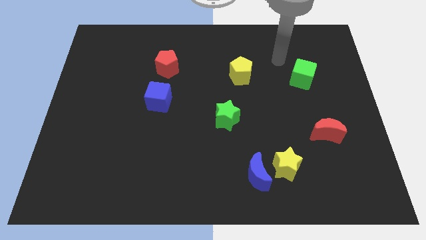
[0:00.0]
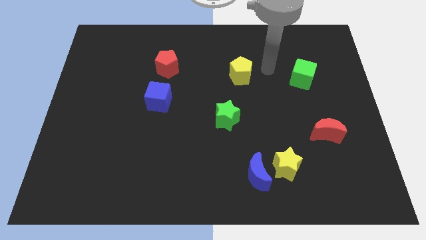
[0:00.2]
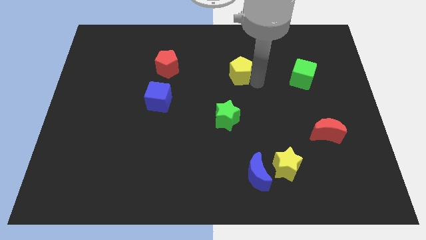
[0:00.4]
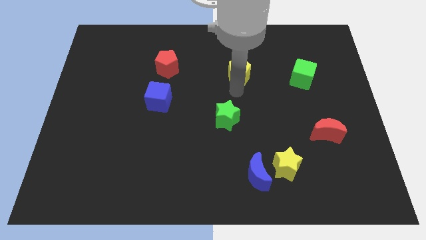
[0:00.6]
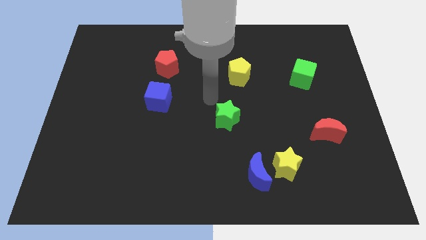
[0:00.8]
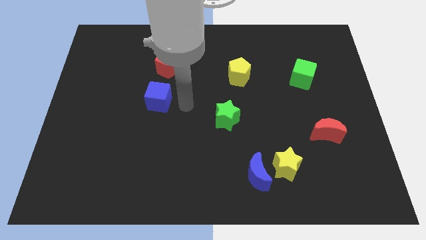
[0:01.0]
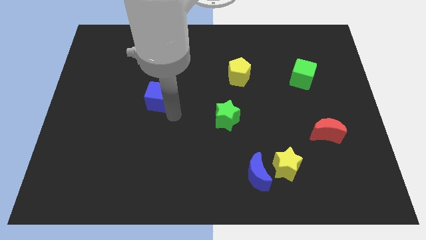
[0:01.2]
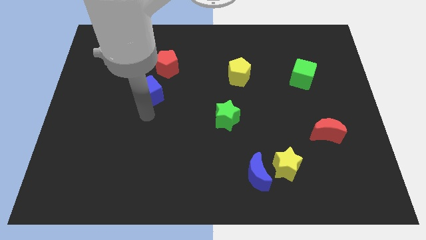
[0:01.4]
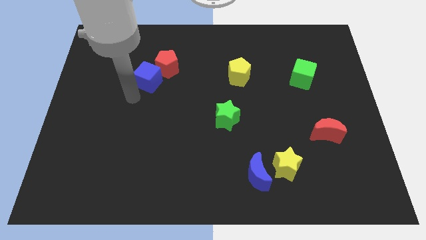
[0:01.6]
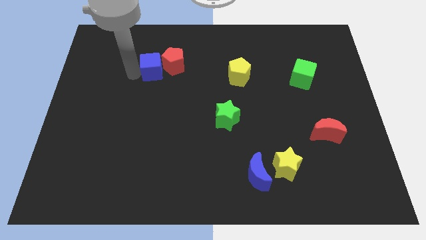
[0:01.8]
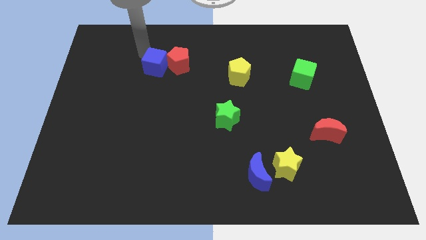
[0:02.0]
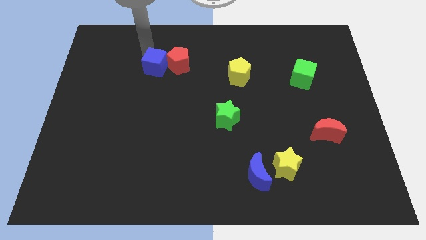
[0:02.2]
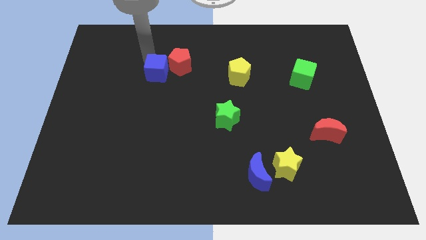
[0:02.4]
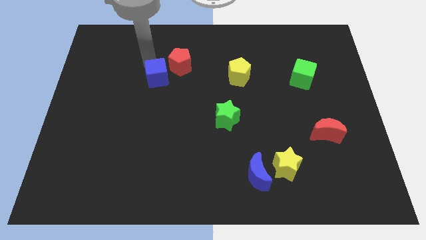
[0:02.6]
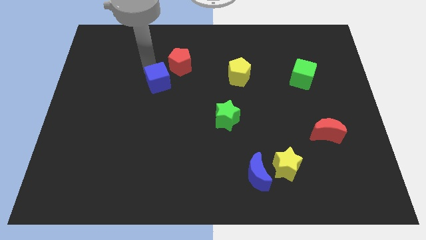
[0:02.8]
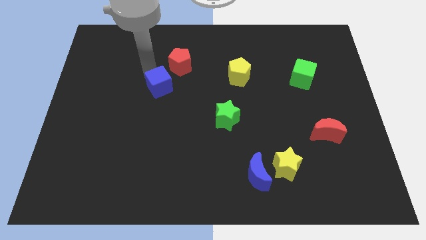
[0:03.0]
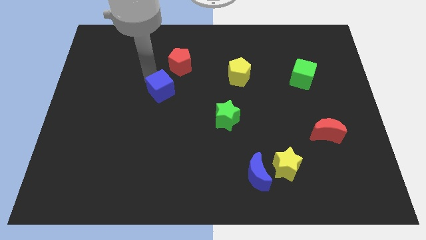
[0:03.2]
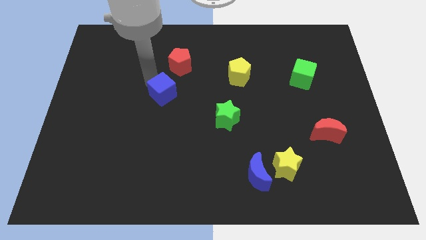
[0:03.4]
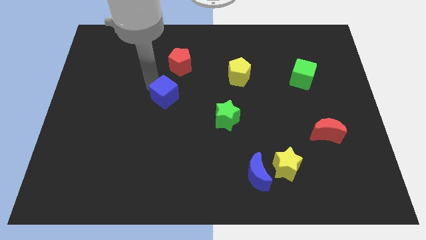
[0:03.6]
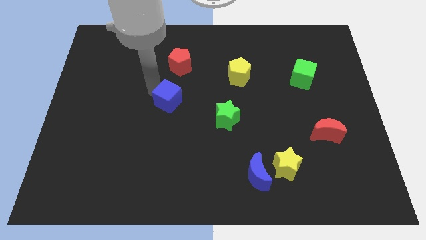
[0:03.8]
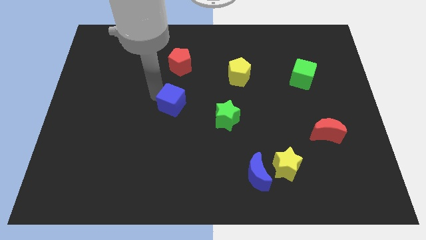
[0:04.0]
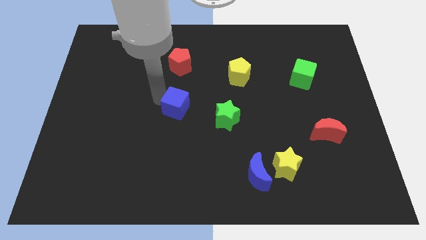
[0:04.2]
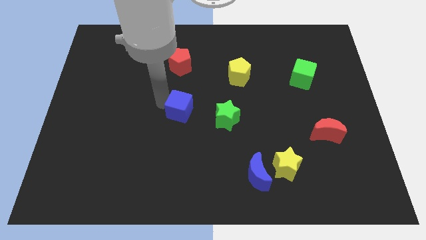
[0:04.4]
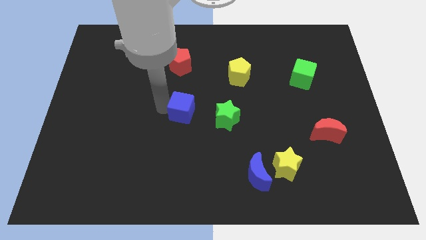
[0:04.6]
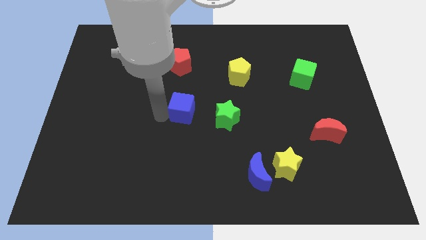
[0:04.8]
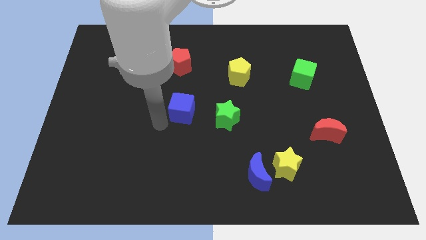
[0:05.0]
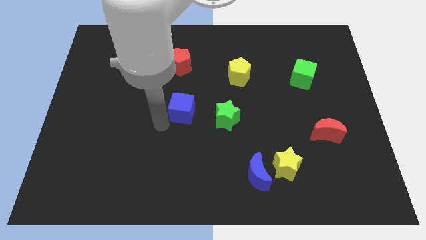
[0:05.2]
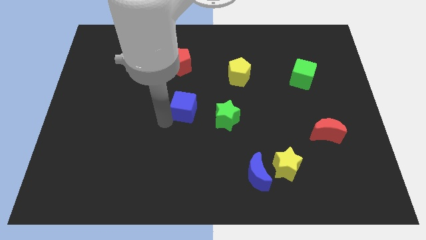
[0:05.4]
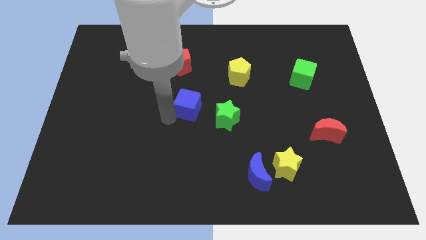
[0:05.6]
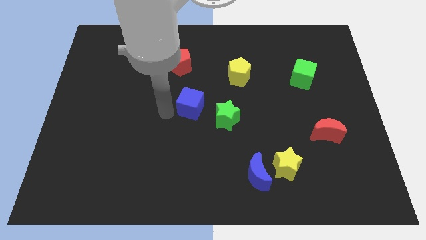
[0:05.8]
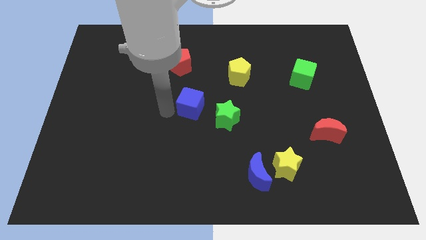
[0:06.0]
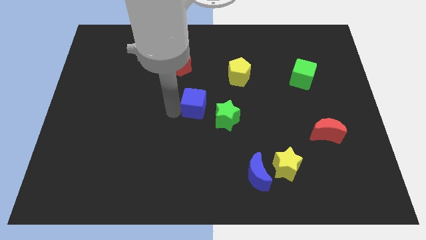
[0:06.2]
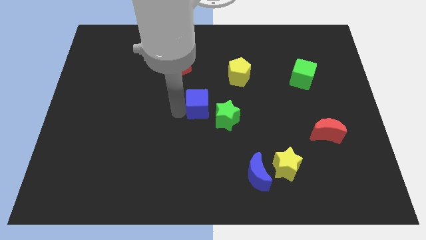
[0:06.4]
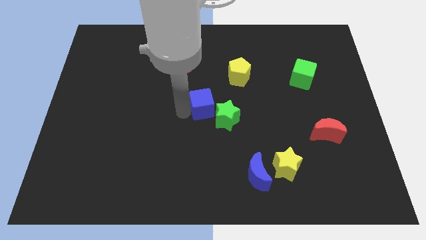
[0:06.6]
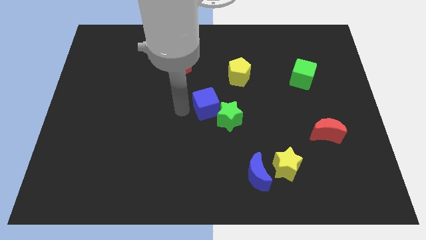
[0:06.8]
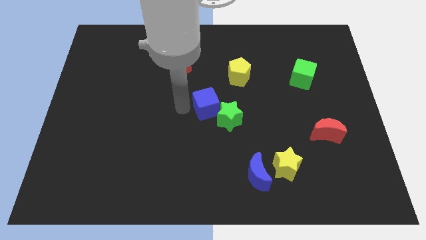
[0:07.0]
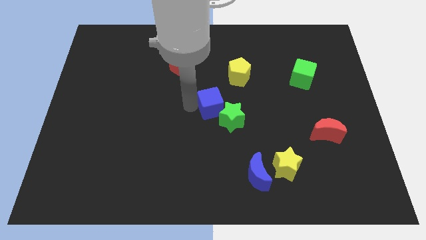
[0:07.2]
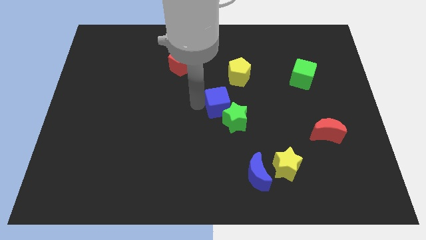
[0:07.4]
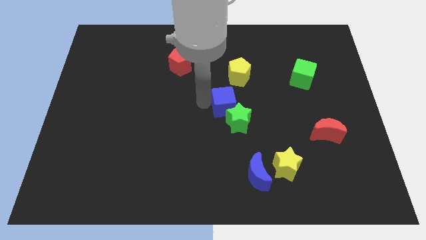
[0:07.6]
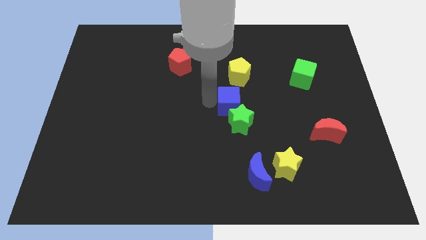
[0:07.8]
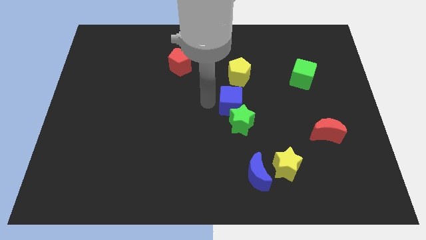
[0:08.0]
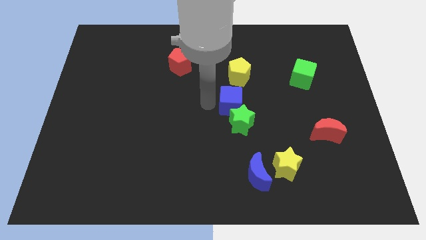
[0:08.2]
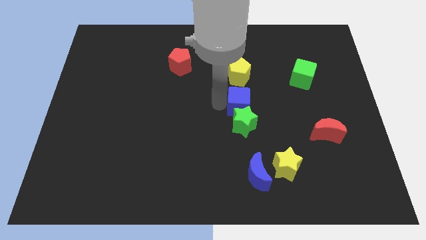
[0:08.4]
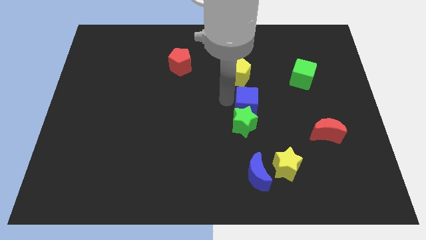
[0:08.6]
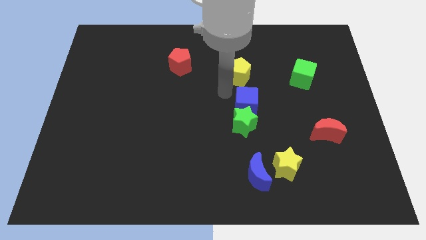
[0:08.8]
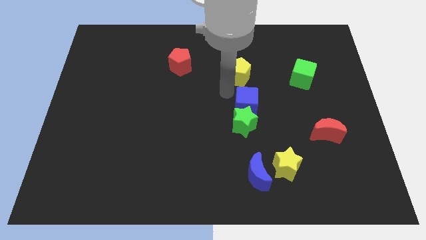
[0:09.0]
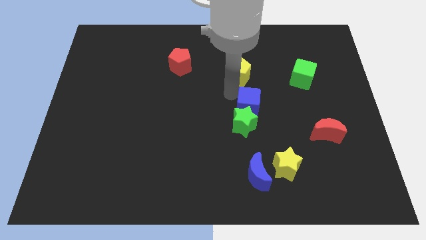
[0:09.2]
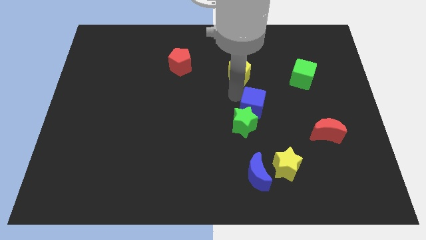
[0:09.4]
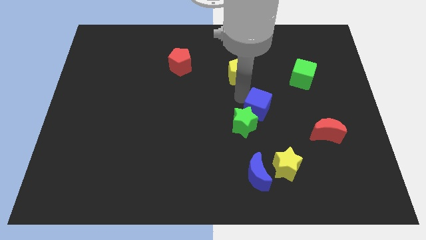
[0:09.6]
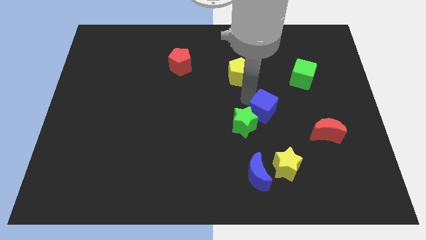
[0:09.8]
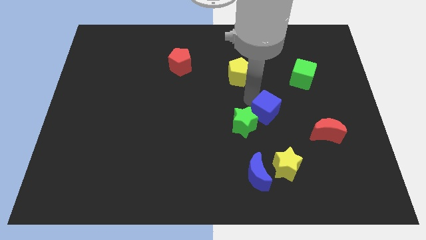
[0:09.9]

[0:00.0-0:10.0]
push the blue cube above the yellow star

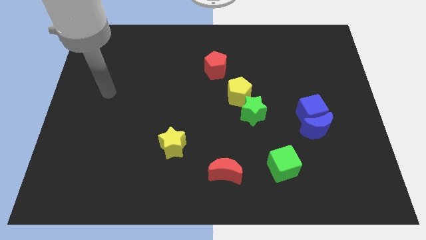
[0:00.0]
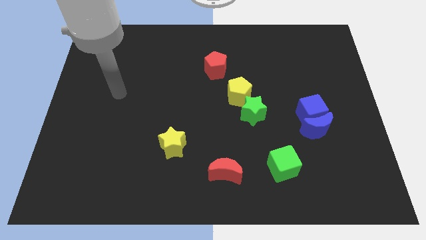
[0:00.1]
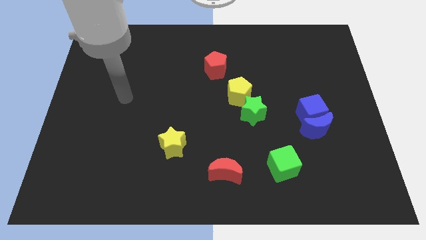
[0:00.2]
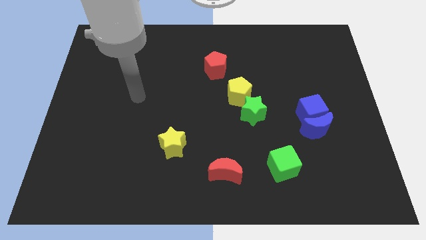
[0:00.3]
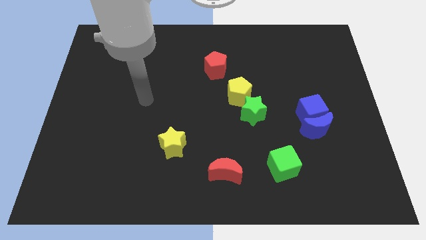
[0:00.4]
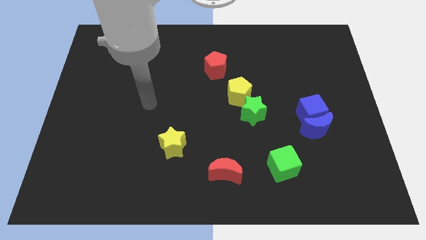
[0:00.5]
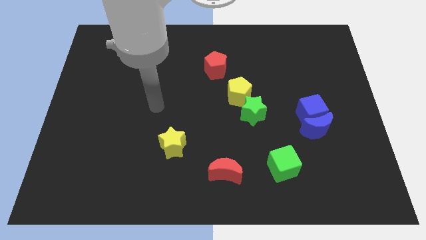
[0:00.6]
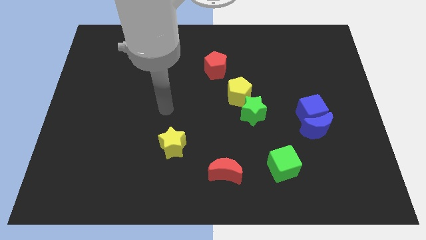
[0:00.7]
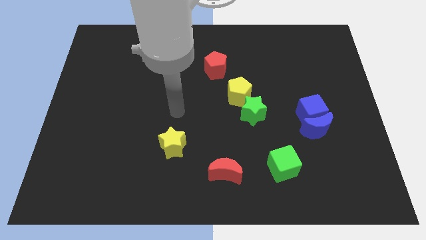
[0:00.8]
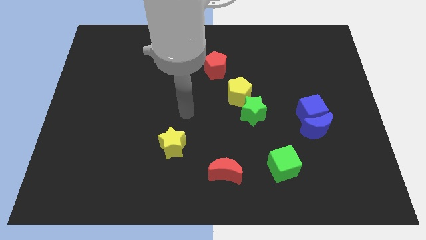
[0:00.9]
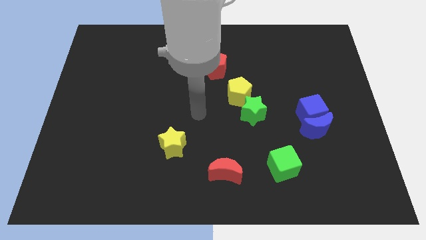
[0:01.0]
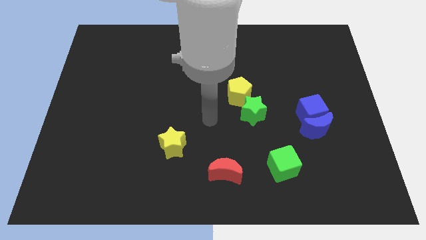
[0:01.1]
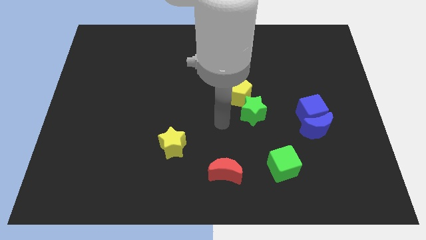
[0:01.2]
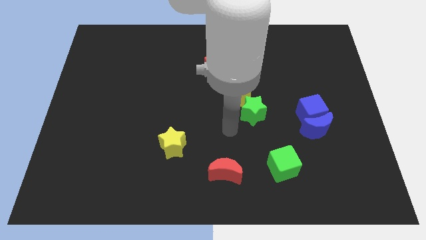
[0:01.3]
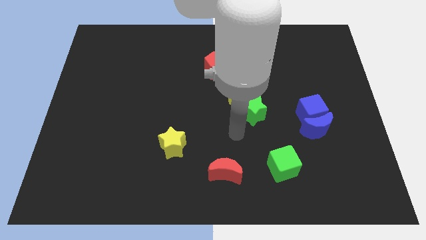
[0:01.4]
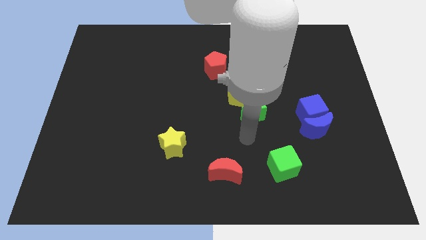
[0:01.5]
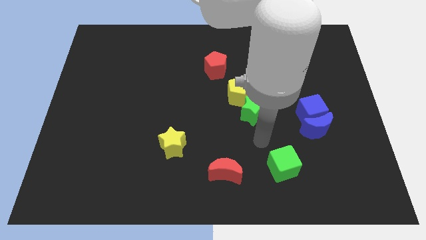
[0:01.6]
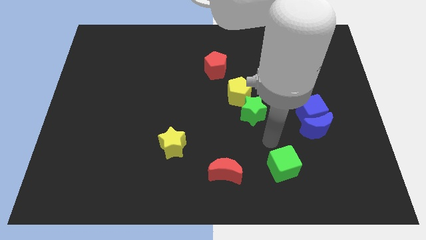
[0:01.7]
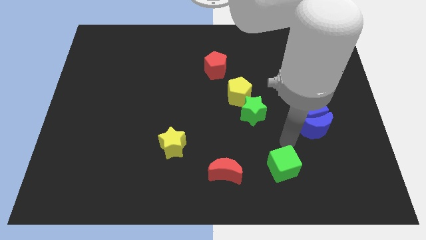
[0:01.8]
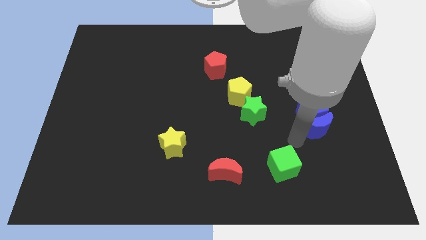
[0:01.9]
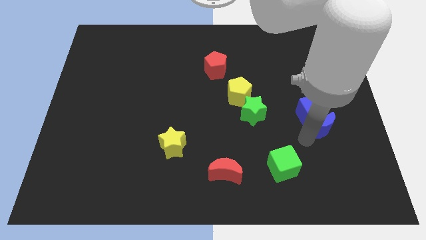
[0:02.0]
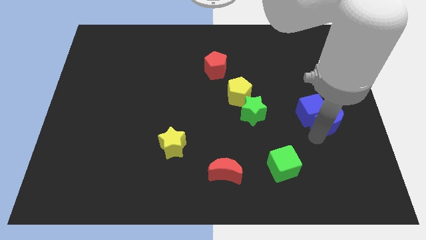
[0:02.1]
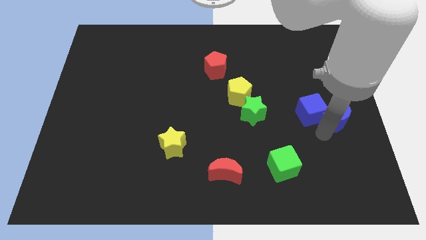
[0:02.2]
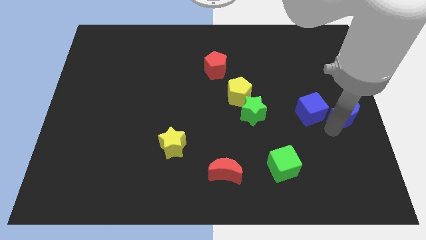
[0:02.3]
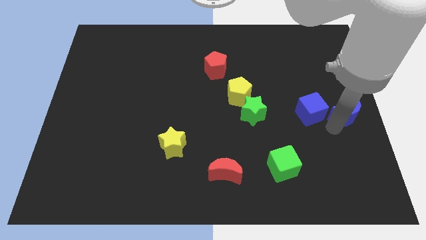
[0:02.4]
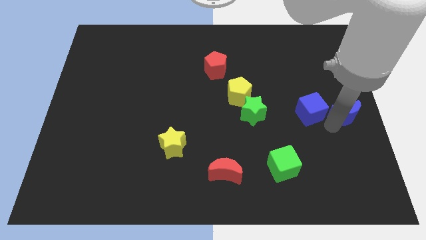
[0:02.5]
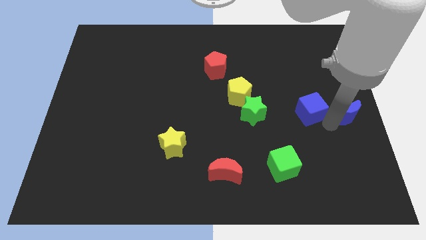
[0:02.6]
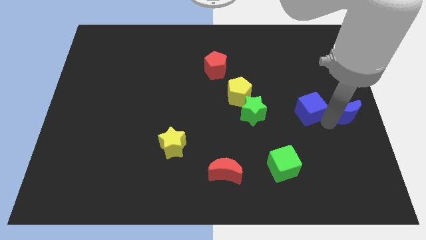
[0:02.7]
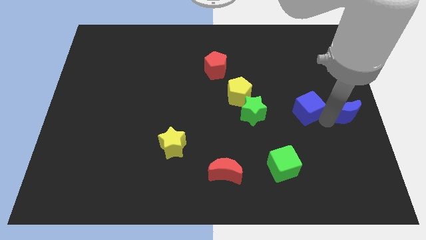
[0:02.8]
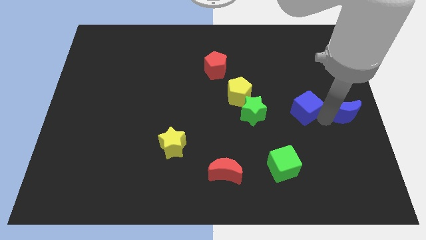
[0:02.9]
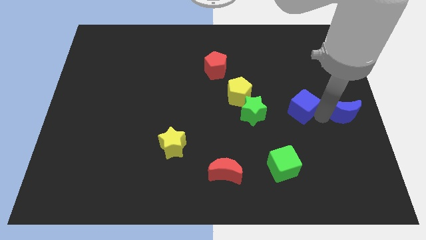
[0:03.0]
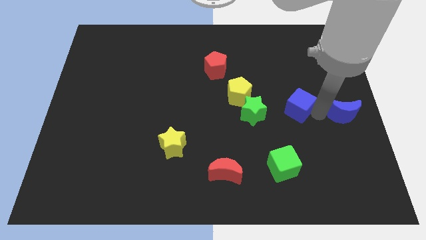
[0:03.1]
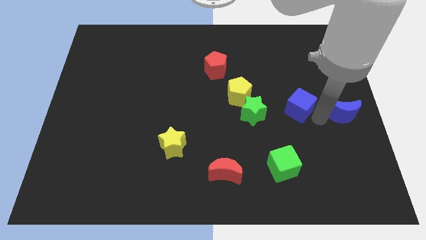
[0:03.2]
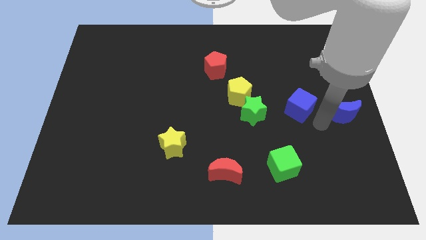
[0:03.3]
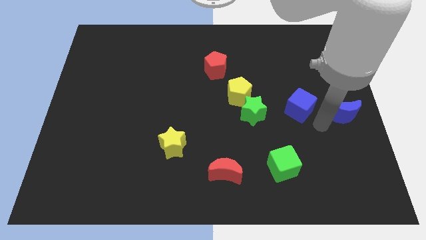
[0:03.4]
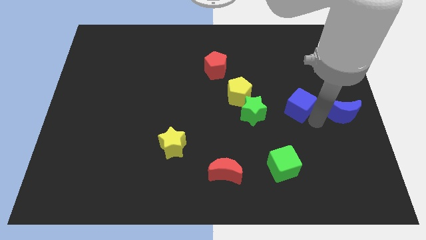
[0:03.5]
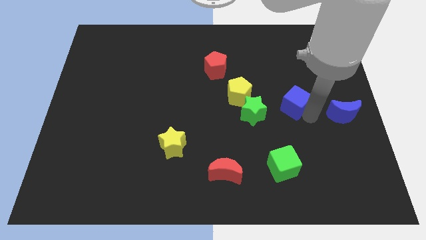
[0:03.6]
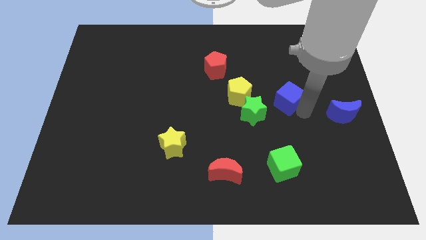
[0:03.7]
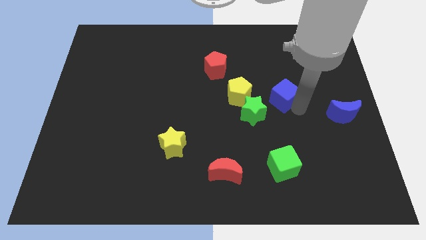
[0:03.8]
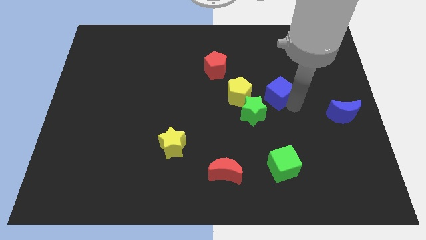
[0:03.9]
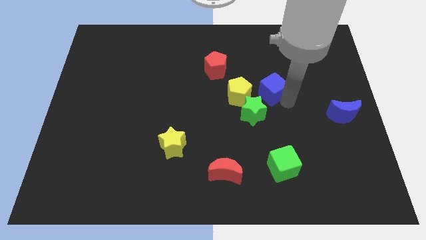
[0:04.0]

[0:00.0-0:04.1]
push the blue cube to the top right side of the yellow pentagon
